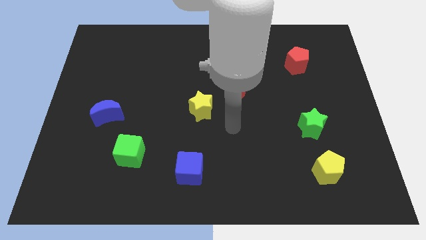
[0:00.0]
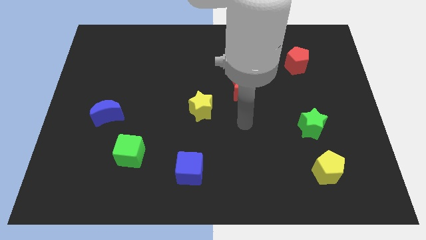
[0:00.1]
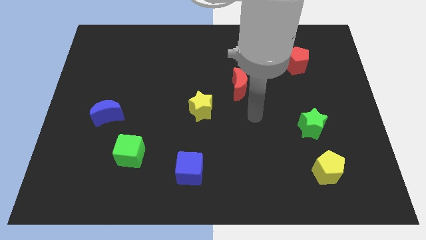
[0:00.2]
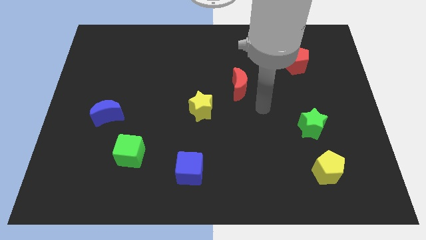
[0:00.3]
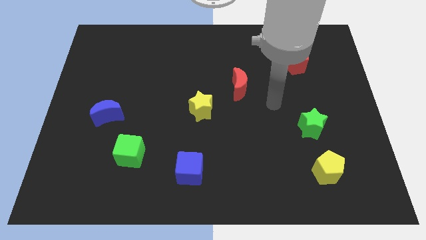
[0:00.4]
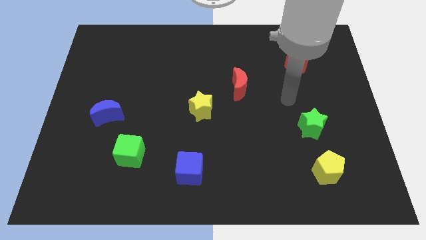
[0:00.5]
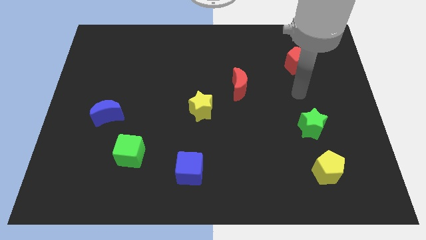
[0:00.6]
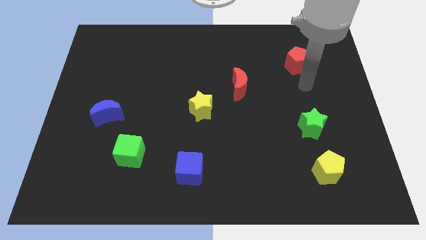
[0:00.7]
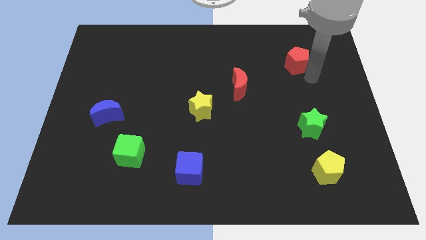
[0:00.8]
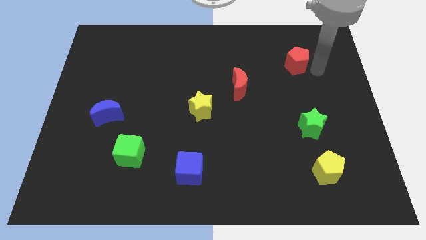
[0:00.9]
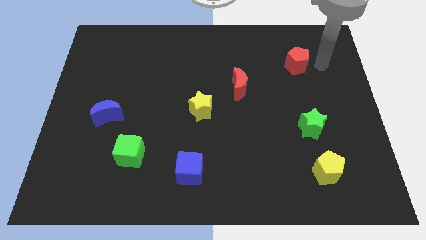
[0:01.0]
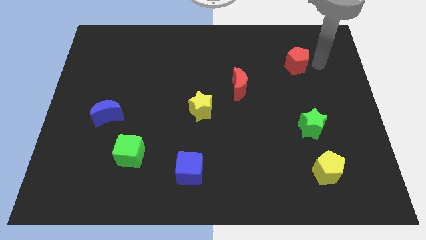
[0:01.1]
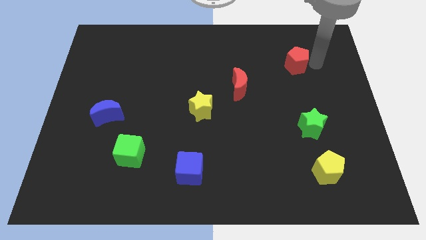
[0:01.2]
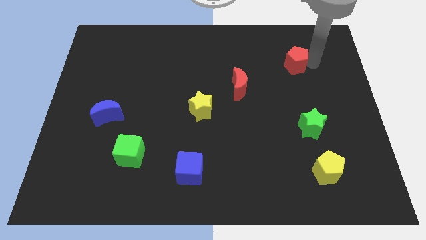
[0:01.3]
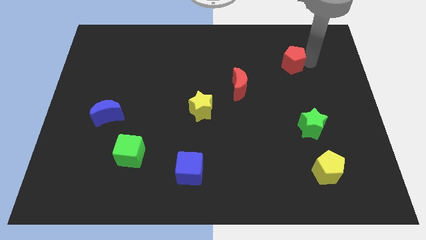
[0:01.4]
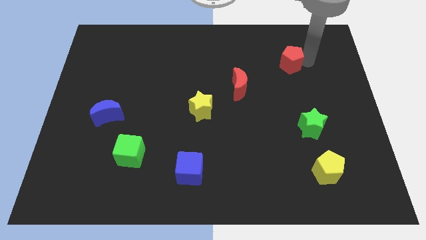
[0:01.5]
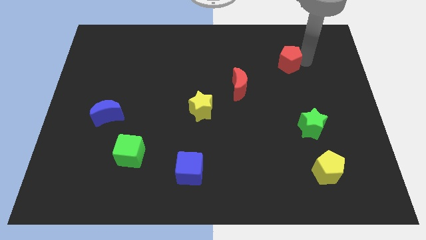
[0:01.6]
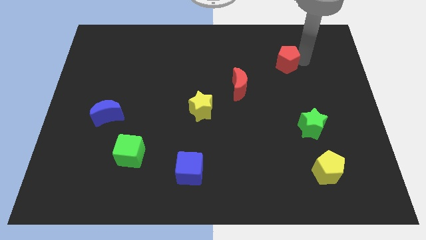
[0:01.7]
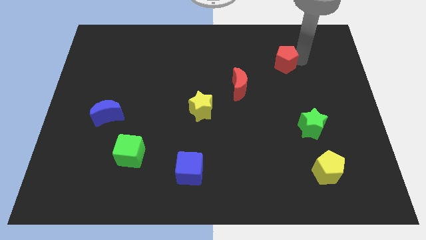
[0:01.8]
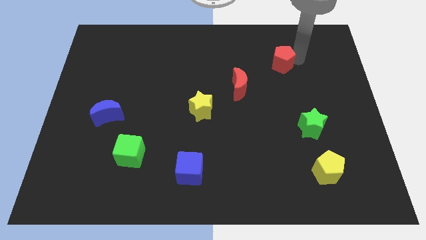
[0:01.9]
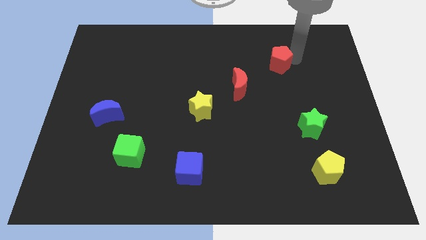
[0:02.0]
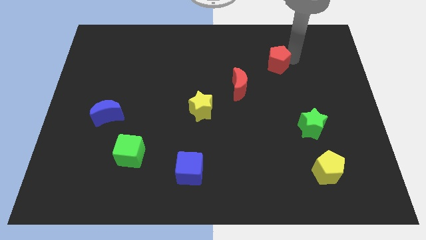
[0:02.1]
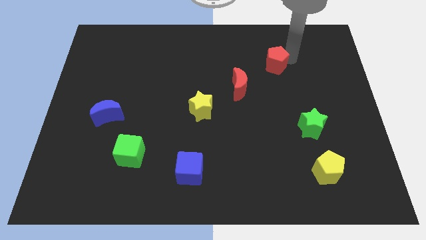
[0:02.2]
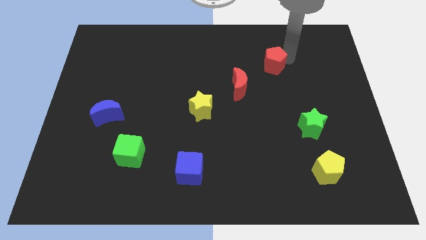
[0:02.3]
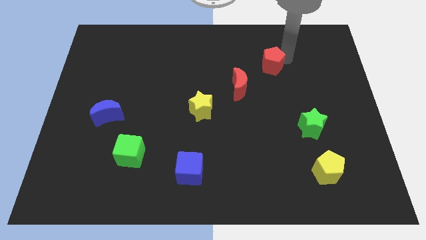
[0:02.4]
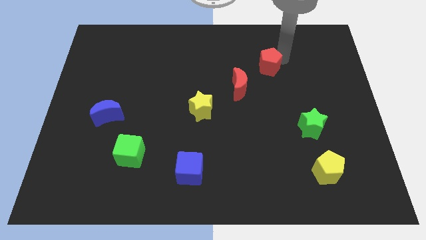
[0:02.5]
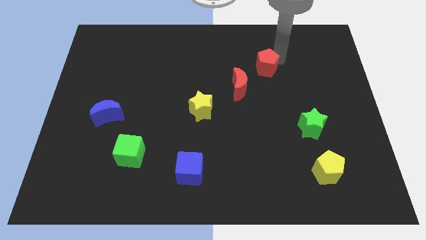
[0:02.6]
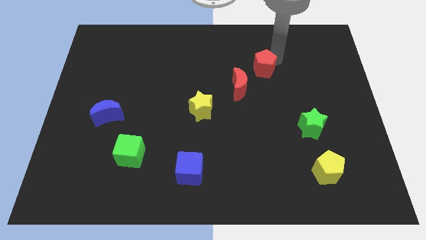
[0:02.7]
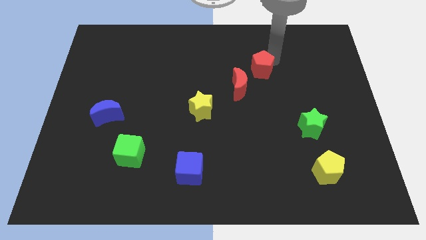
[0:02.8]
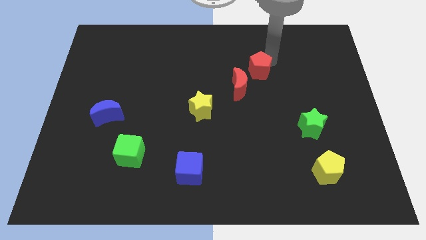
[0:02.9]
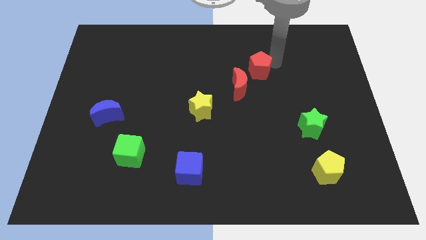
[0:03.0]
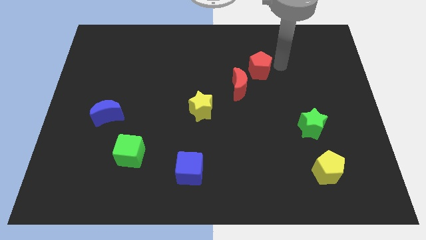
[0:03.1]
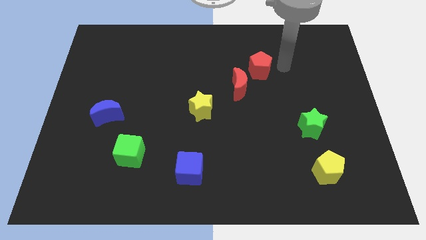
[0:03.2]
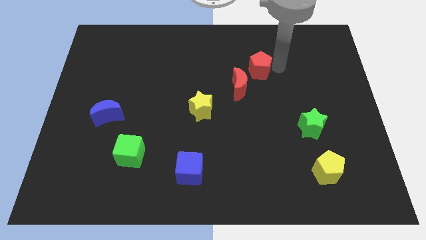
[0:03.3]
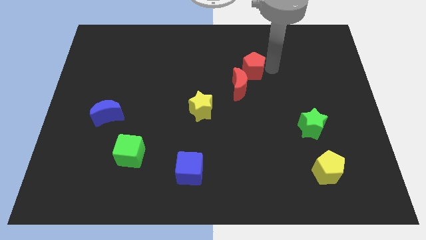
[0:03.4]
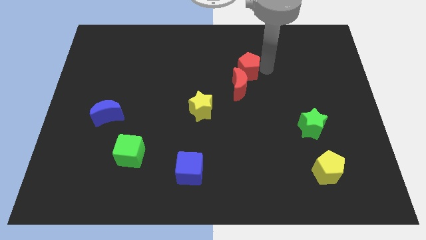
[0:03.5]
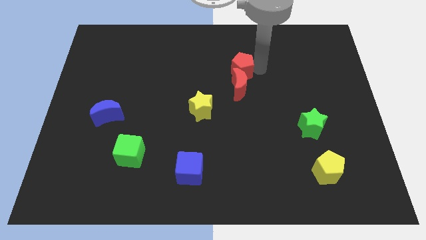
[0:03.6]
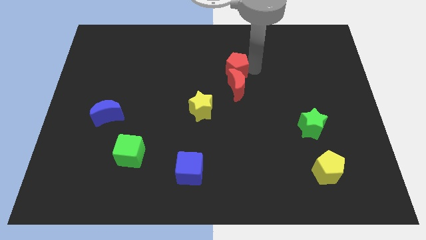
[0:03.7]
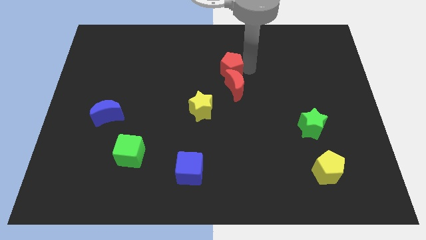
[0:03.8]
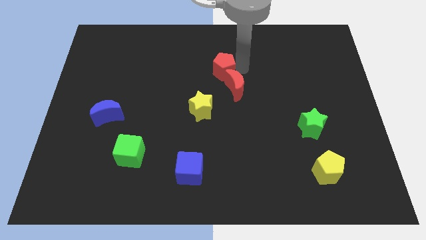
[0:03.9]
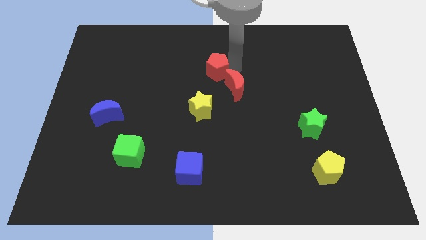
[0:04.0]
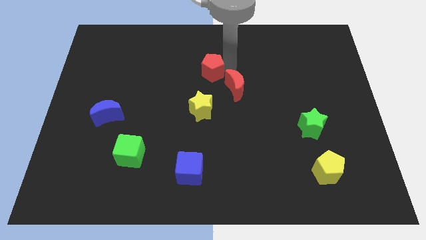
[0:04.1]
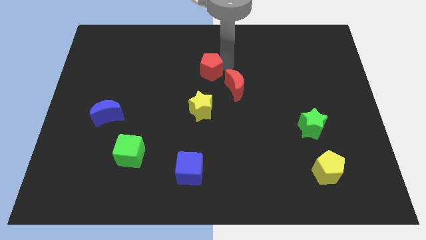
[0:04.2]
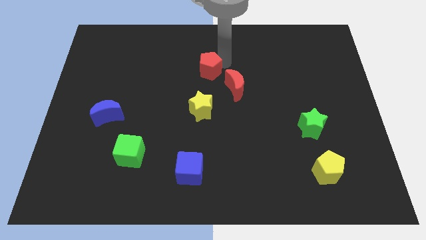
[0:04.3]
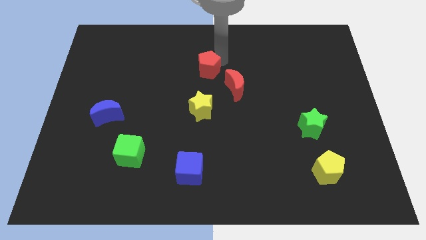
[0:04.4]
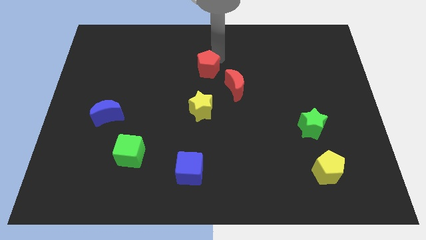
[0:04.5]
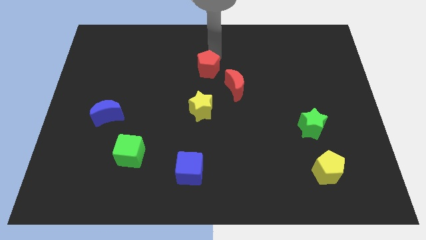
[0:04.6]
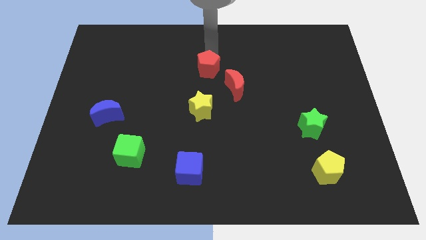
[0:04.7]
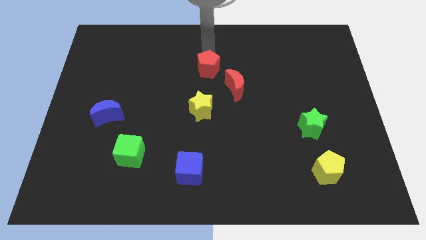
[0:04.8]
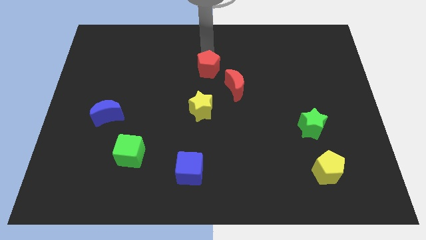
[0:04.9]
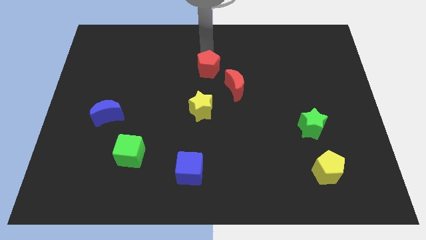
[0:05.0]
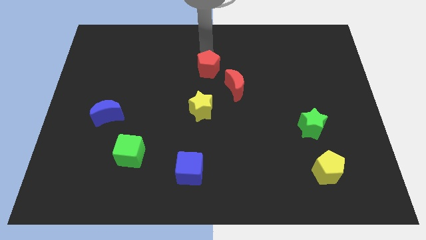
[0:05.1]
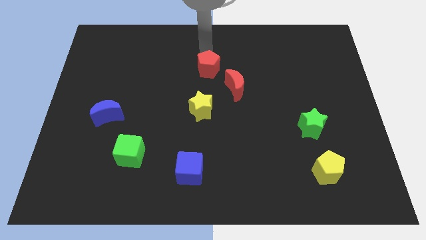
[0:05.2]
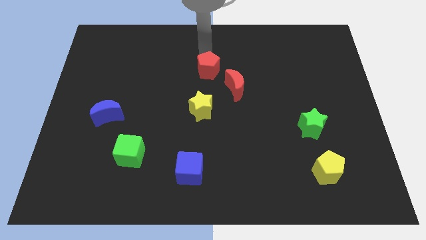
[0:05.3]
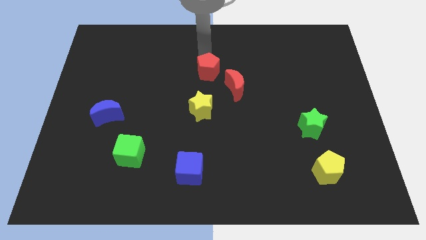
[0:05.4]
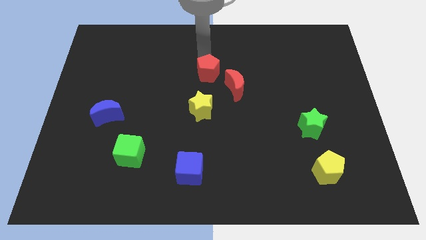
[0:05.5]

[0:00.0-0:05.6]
move the red pentagon left of the red moon

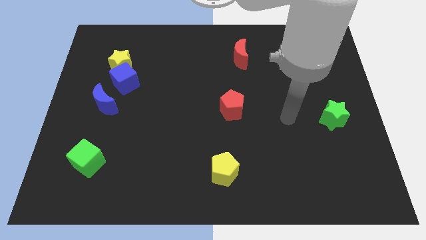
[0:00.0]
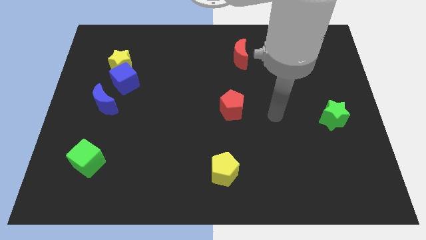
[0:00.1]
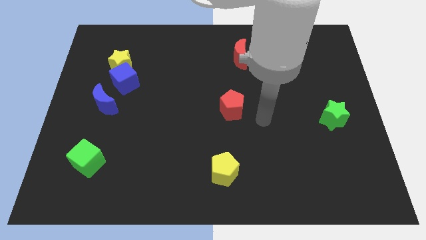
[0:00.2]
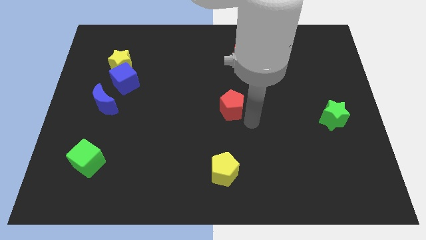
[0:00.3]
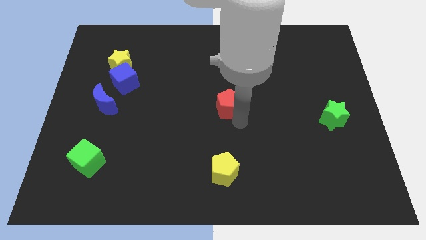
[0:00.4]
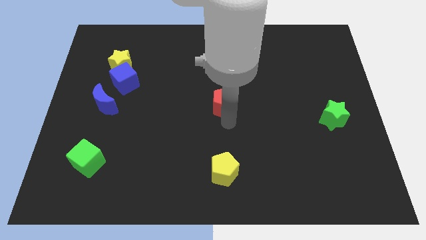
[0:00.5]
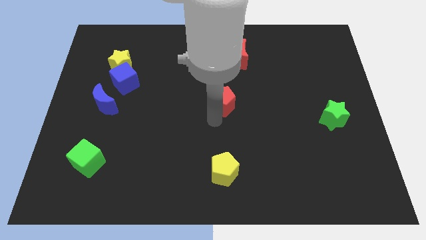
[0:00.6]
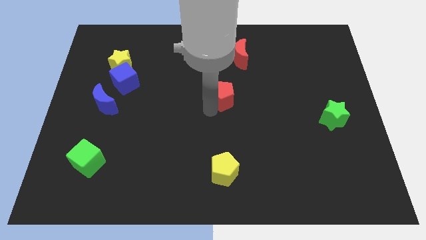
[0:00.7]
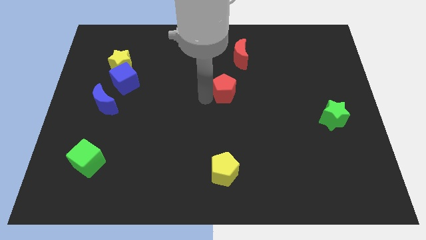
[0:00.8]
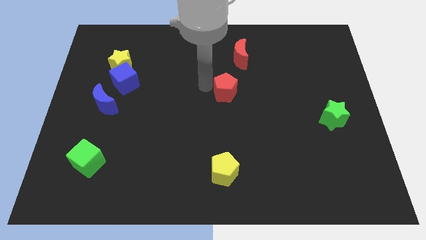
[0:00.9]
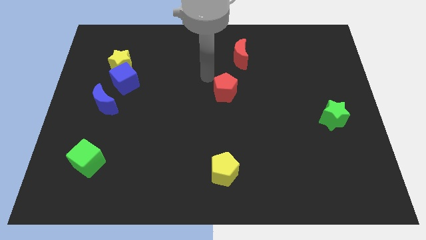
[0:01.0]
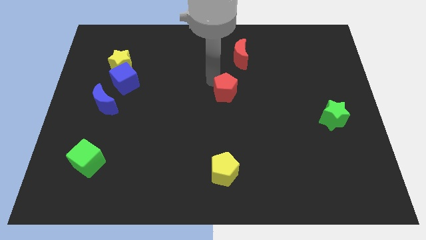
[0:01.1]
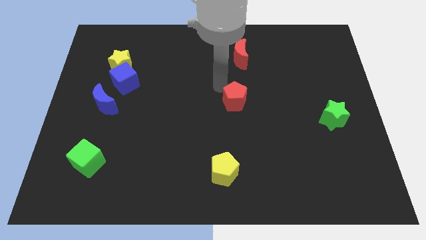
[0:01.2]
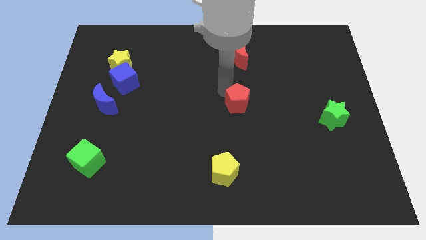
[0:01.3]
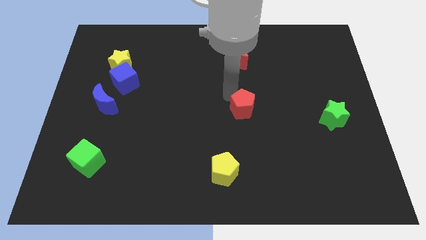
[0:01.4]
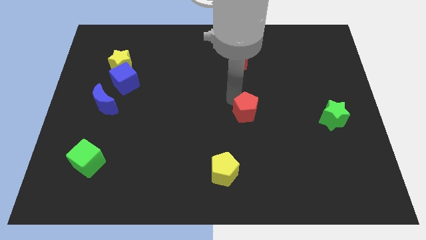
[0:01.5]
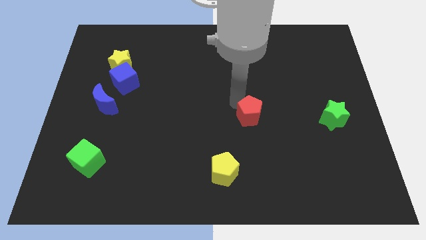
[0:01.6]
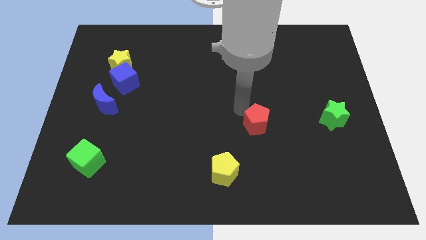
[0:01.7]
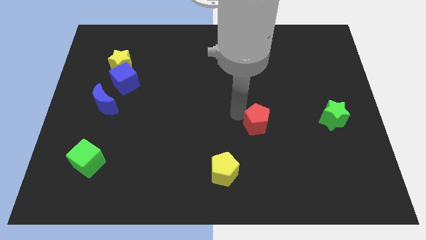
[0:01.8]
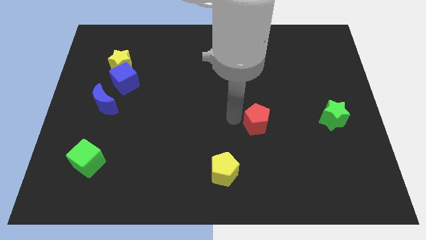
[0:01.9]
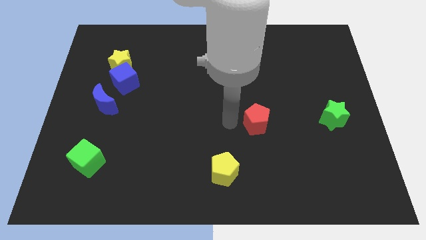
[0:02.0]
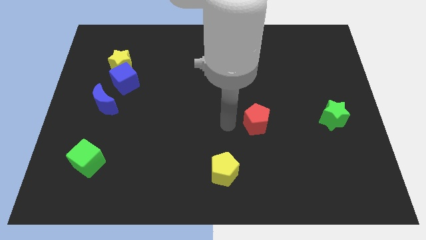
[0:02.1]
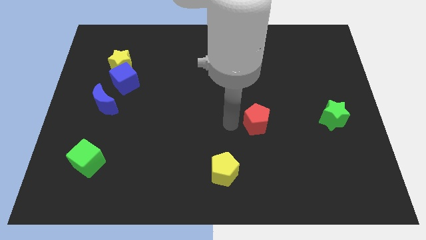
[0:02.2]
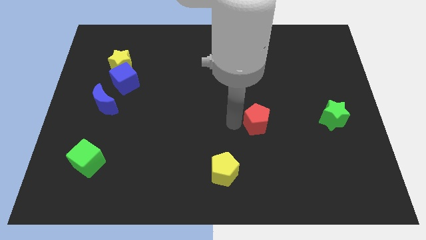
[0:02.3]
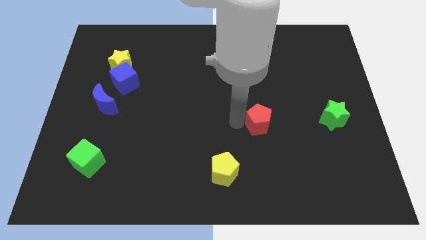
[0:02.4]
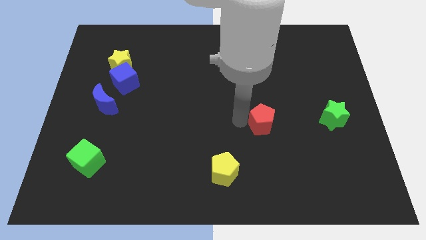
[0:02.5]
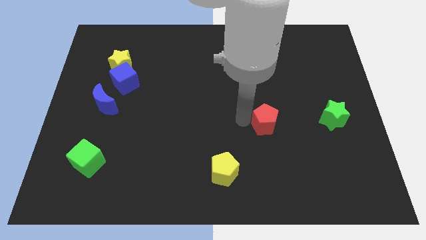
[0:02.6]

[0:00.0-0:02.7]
move the red pentagon just left of the green star
